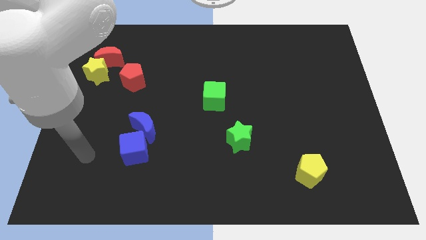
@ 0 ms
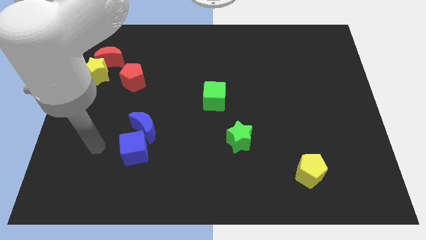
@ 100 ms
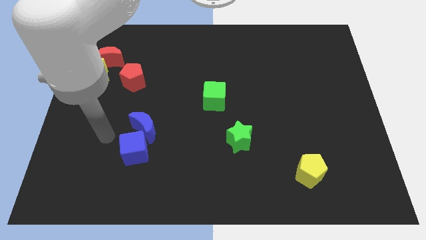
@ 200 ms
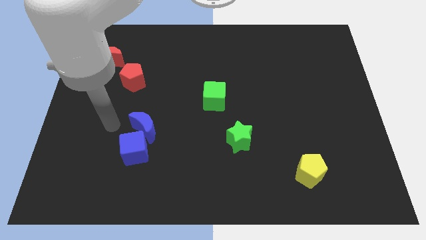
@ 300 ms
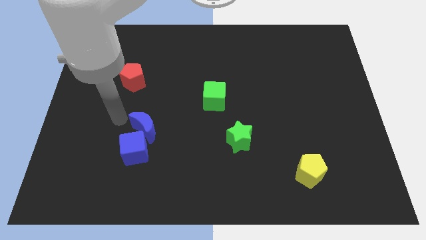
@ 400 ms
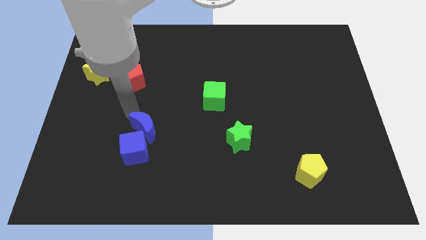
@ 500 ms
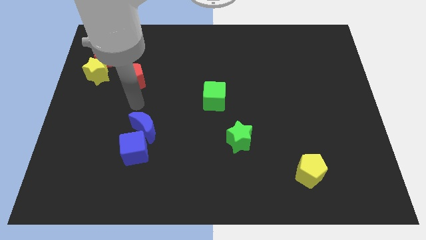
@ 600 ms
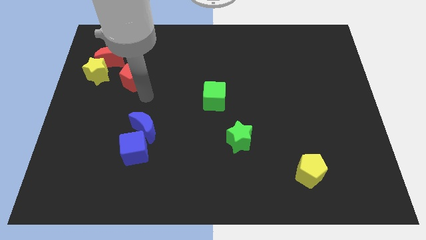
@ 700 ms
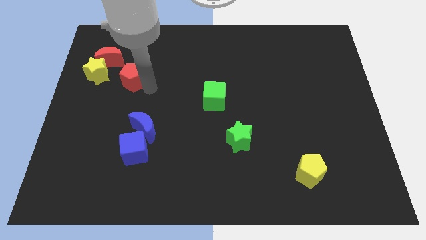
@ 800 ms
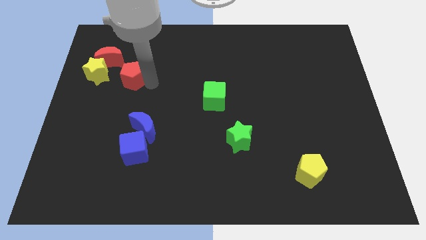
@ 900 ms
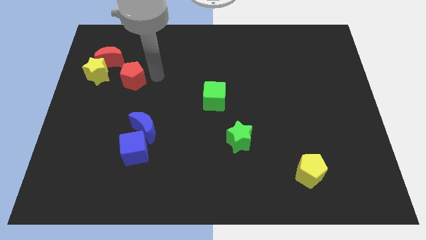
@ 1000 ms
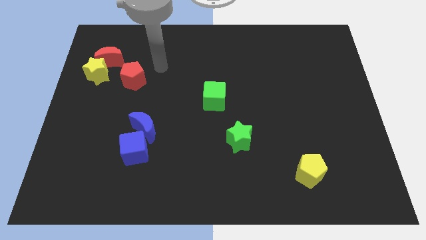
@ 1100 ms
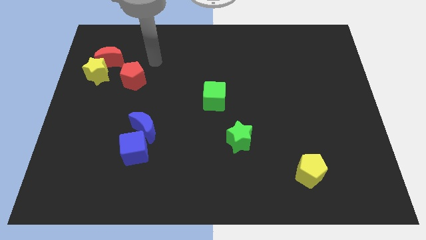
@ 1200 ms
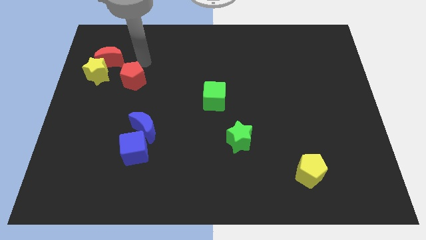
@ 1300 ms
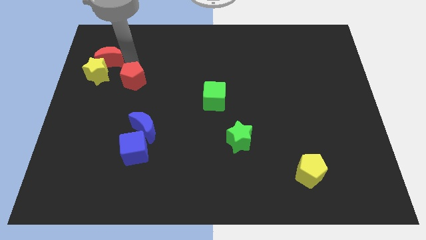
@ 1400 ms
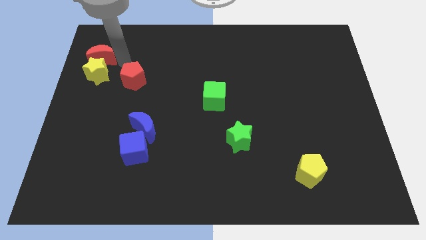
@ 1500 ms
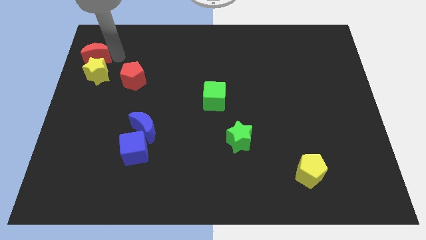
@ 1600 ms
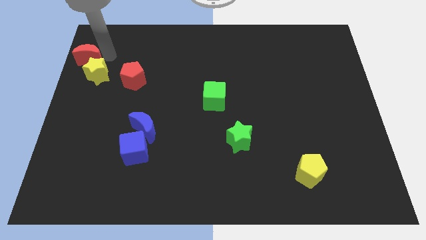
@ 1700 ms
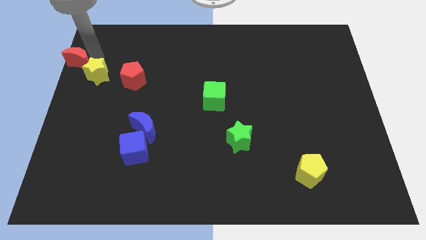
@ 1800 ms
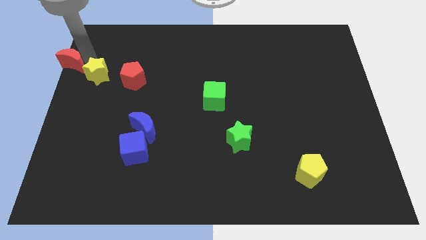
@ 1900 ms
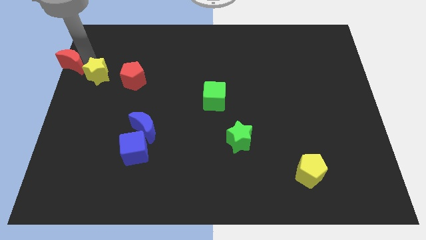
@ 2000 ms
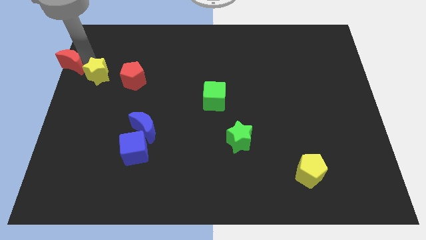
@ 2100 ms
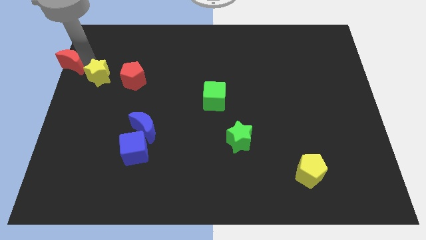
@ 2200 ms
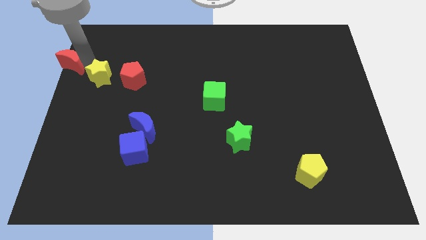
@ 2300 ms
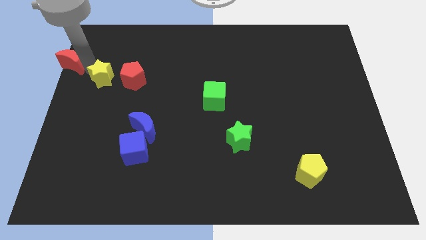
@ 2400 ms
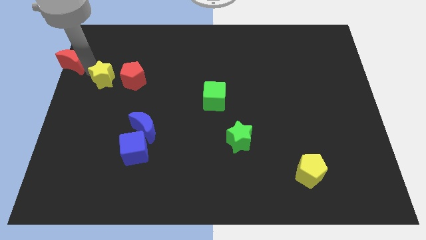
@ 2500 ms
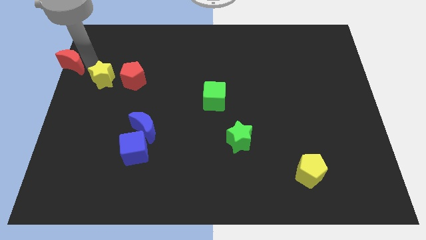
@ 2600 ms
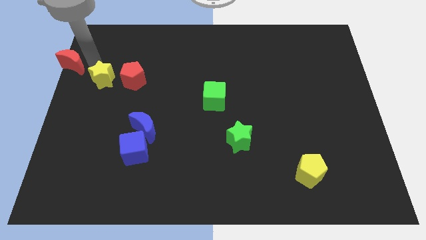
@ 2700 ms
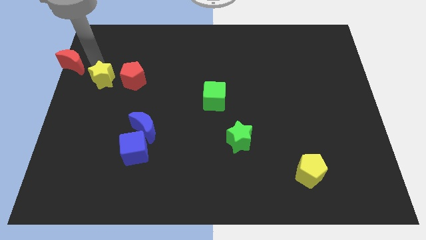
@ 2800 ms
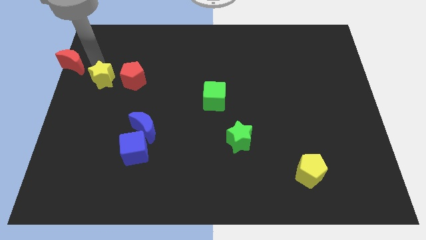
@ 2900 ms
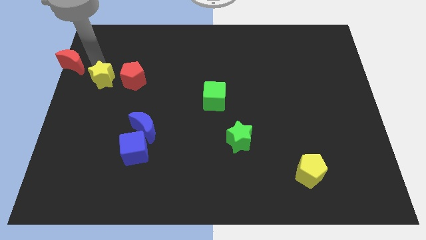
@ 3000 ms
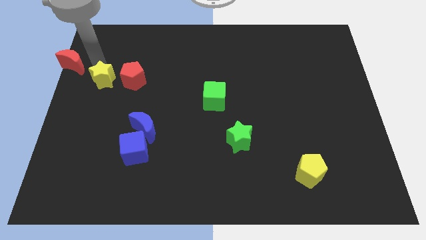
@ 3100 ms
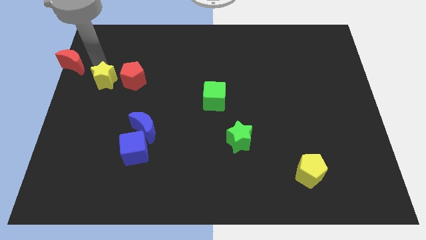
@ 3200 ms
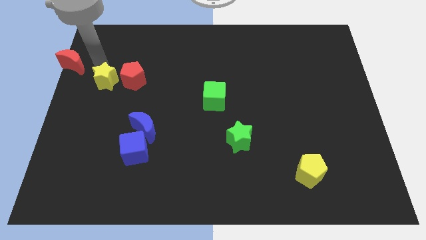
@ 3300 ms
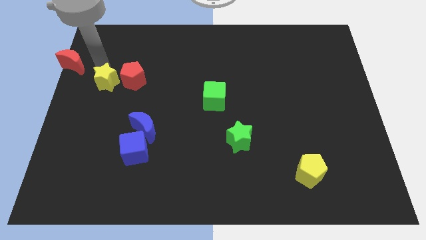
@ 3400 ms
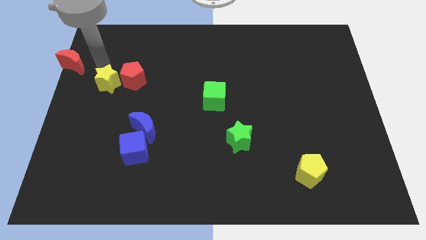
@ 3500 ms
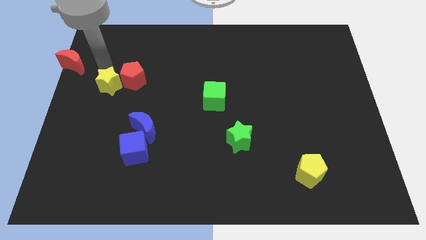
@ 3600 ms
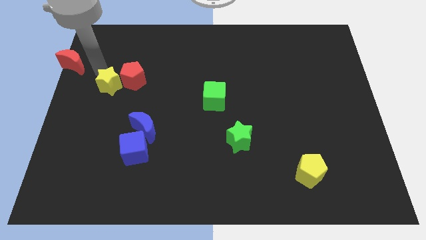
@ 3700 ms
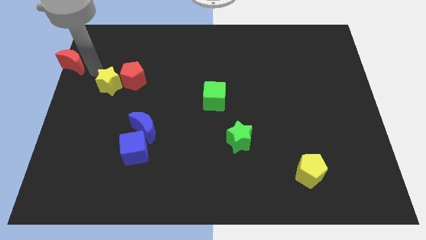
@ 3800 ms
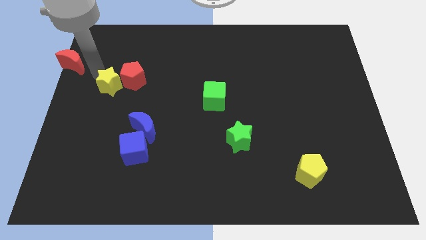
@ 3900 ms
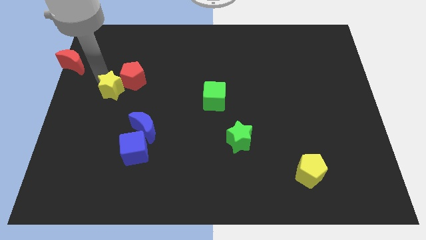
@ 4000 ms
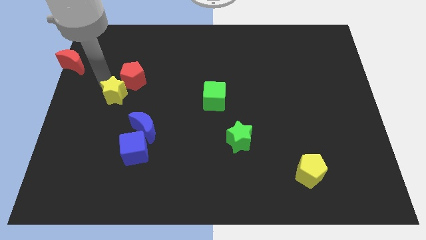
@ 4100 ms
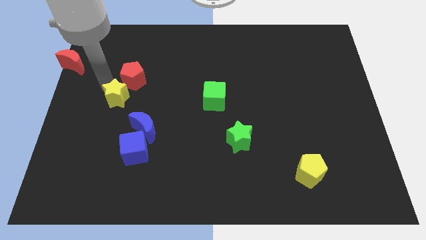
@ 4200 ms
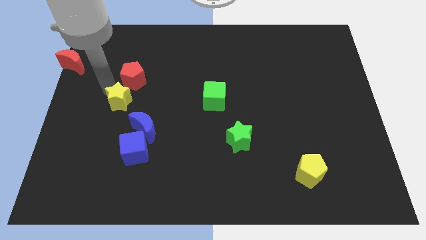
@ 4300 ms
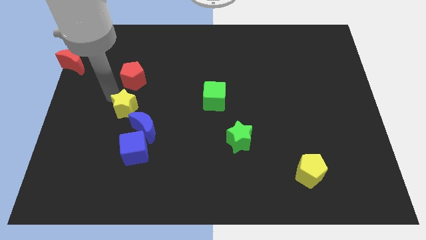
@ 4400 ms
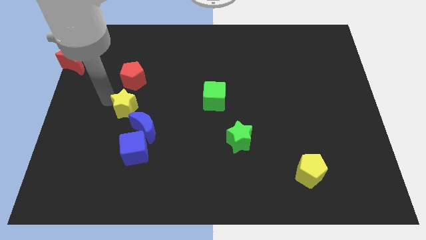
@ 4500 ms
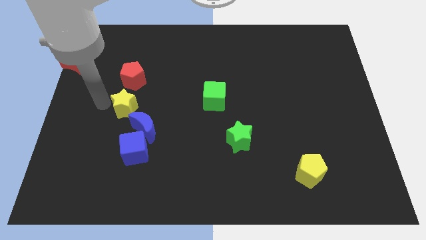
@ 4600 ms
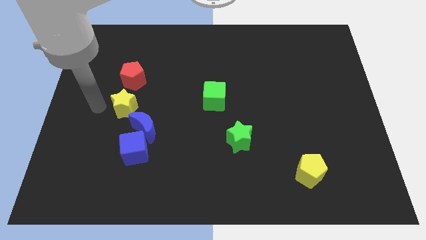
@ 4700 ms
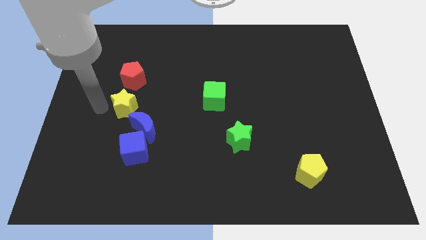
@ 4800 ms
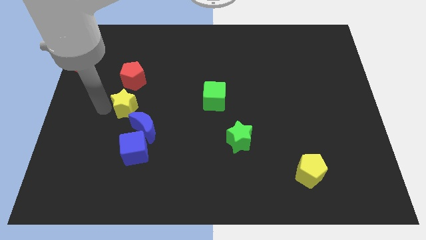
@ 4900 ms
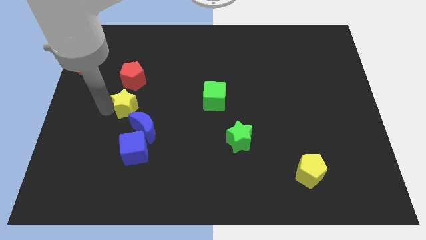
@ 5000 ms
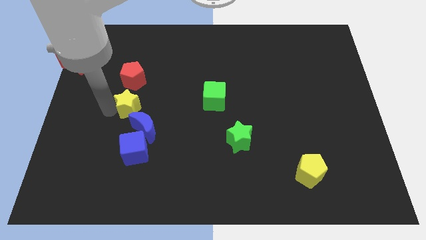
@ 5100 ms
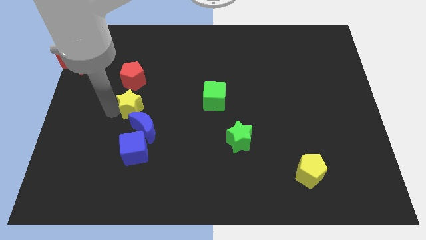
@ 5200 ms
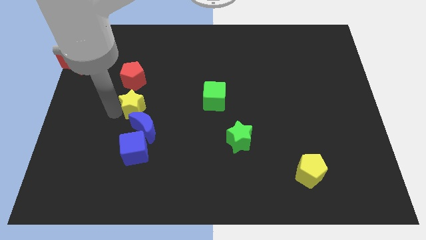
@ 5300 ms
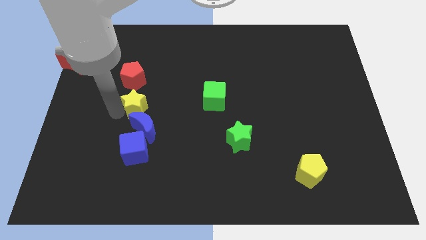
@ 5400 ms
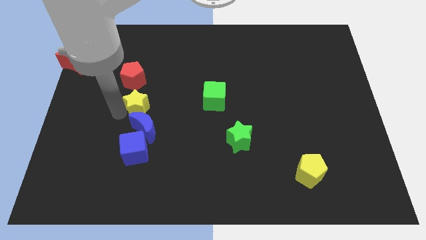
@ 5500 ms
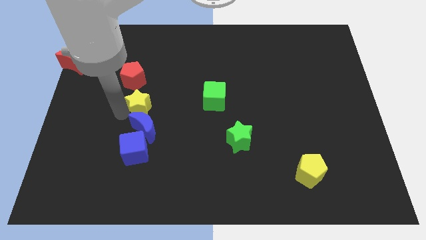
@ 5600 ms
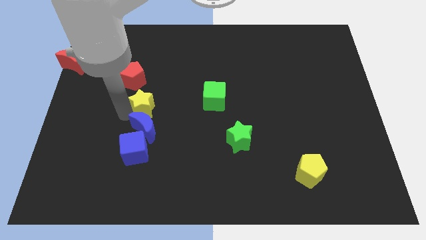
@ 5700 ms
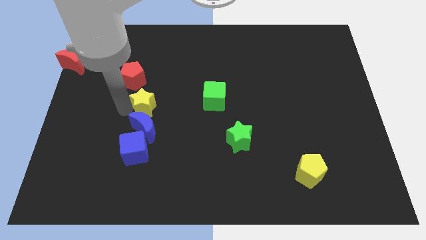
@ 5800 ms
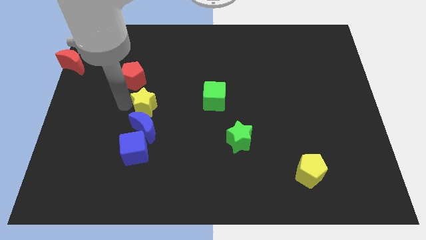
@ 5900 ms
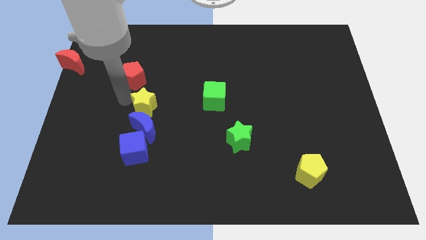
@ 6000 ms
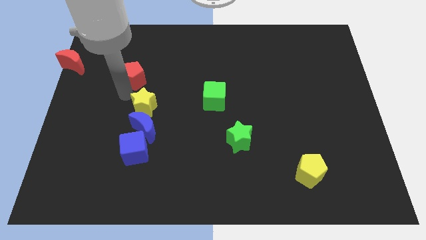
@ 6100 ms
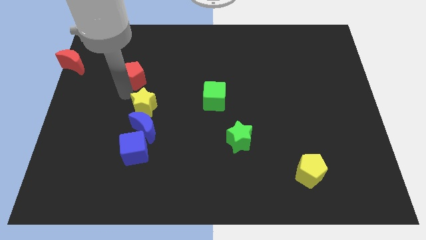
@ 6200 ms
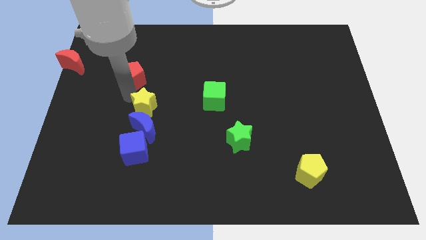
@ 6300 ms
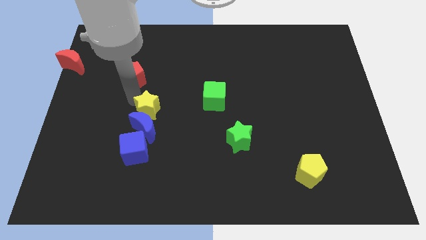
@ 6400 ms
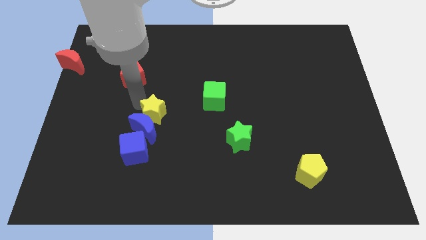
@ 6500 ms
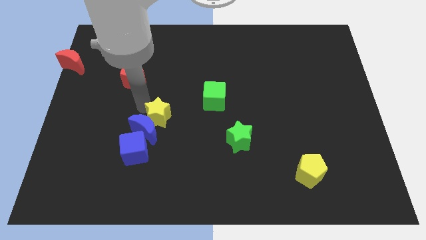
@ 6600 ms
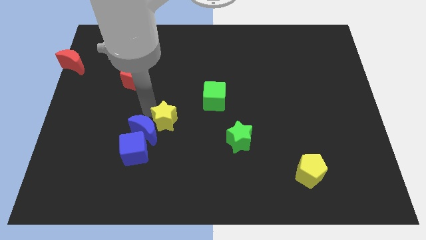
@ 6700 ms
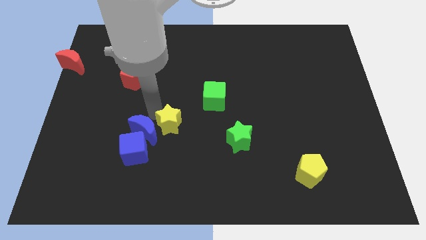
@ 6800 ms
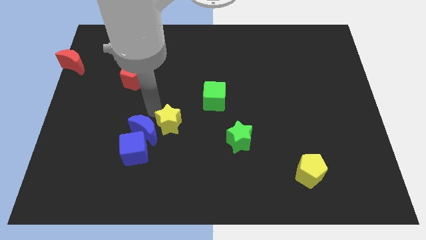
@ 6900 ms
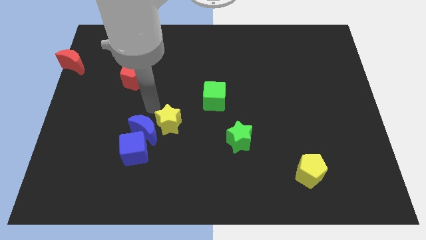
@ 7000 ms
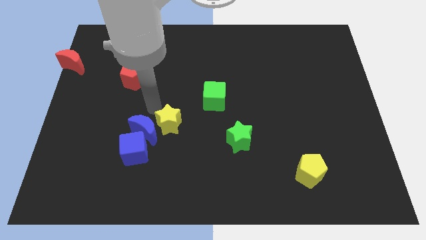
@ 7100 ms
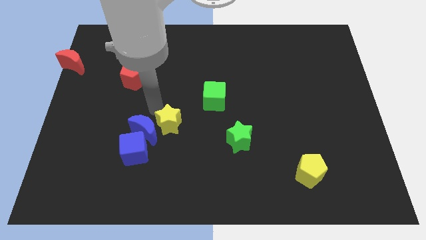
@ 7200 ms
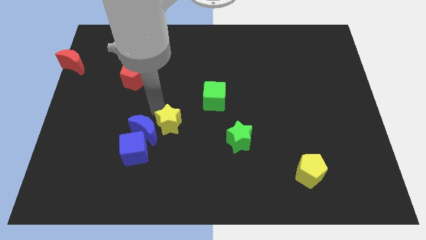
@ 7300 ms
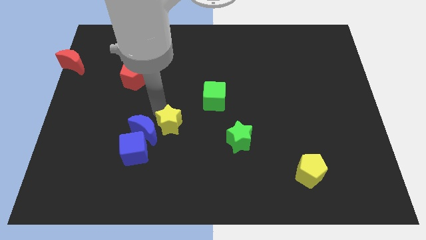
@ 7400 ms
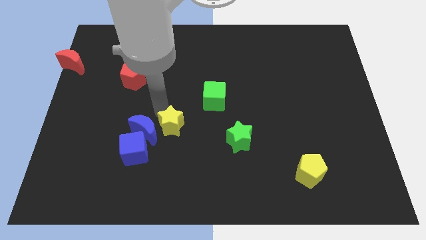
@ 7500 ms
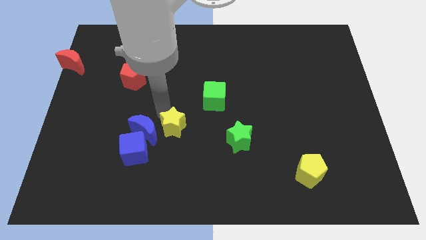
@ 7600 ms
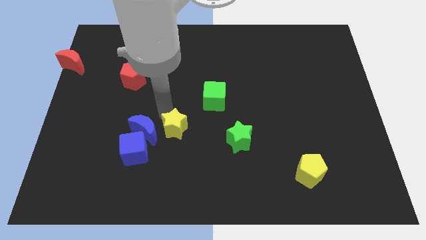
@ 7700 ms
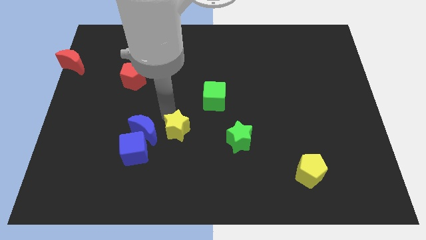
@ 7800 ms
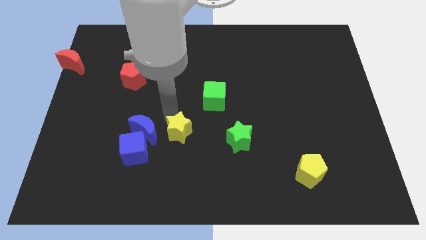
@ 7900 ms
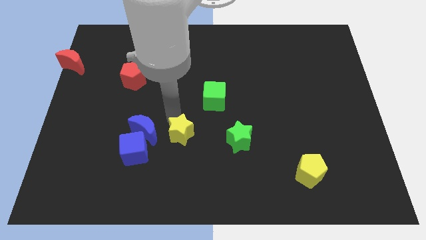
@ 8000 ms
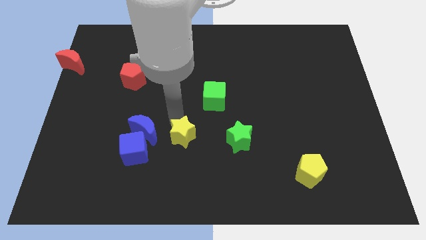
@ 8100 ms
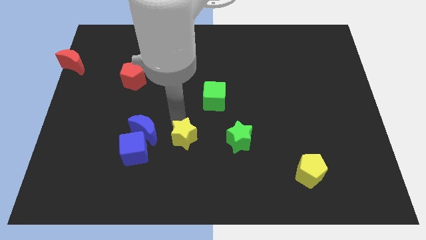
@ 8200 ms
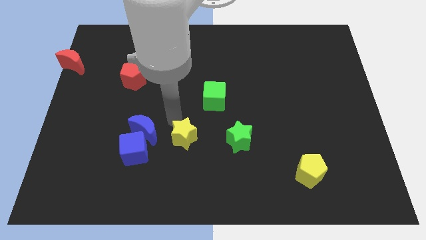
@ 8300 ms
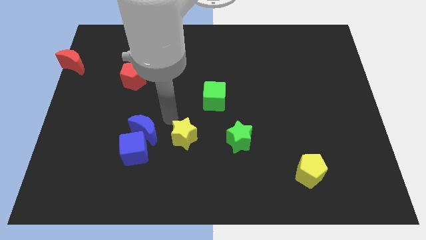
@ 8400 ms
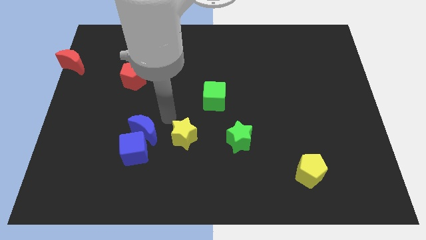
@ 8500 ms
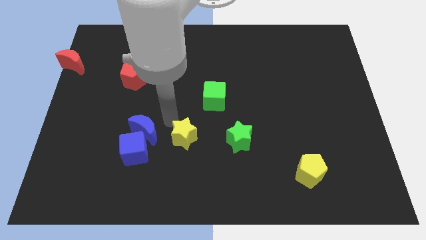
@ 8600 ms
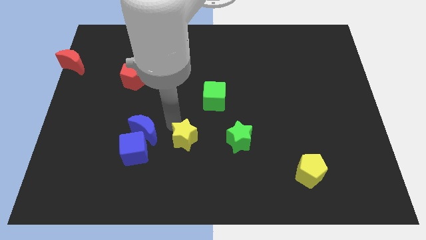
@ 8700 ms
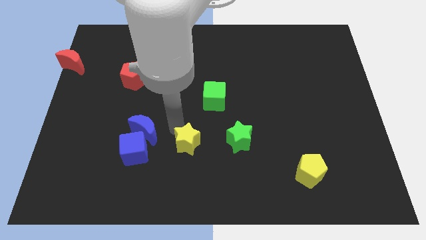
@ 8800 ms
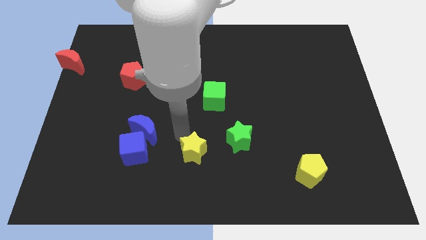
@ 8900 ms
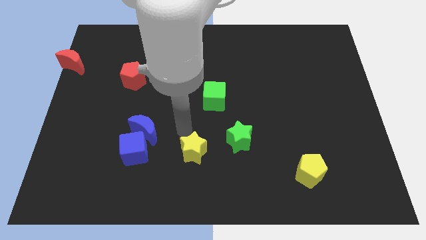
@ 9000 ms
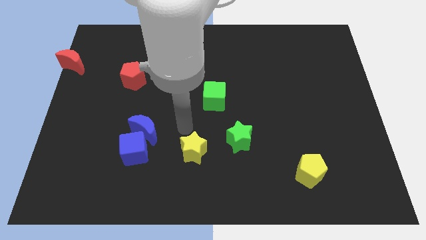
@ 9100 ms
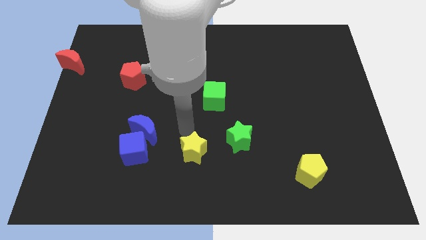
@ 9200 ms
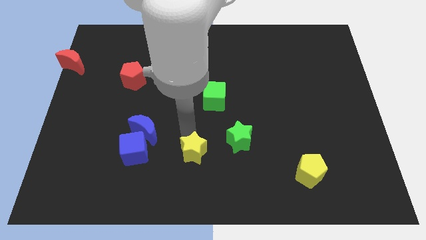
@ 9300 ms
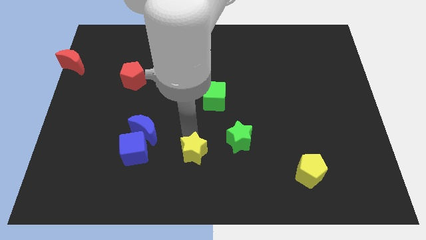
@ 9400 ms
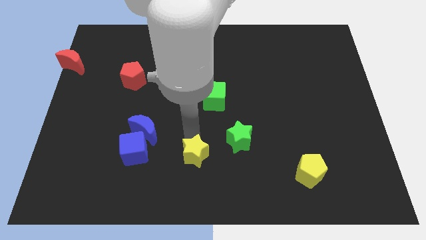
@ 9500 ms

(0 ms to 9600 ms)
move the yellow star to the bottom side
